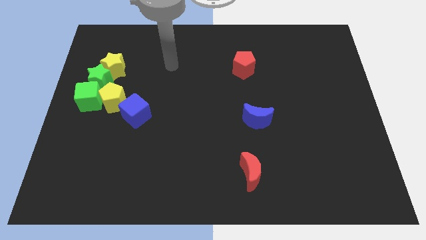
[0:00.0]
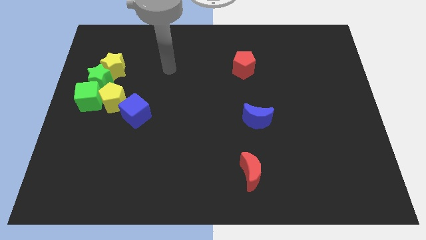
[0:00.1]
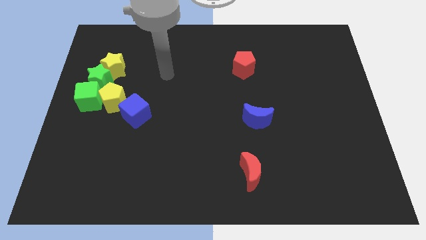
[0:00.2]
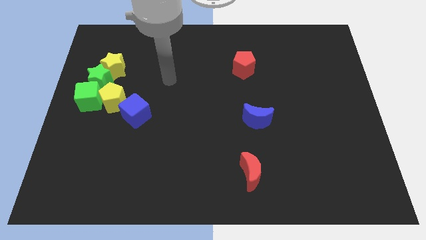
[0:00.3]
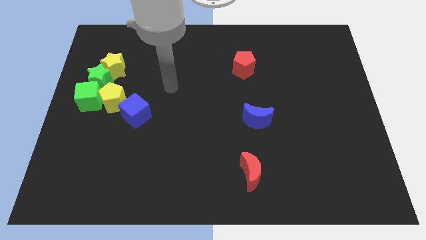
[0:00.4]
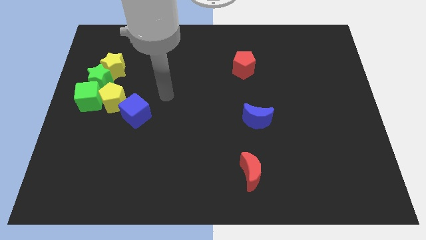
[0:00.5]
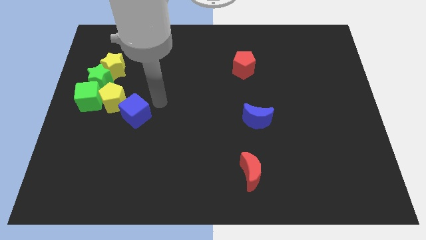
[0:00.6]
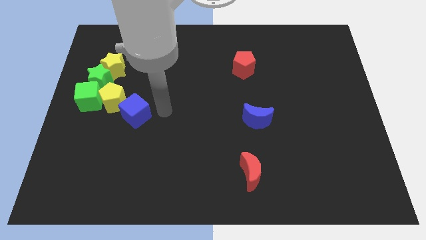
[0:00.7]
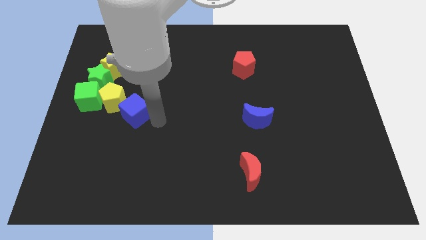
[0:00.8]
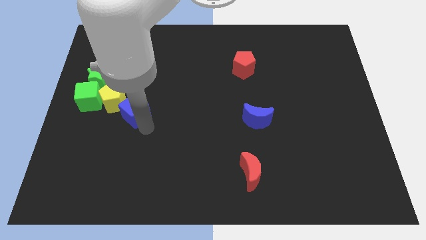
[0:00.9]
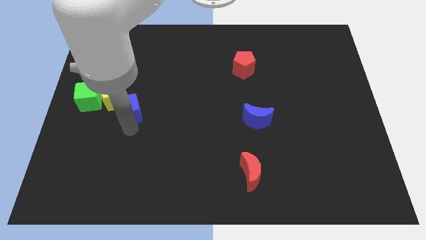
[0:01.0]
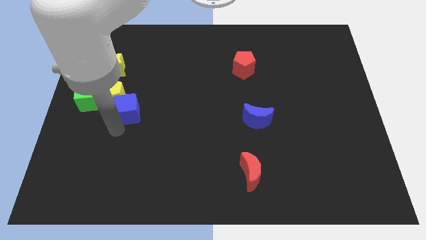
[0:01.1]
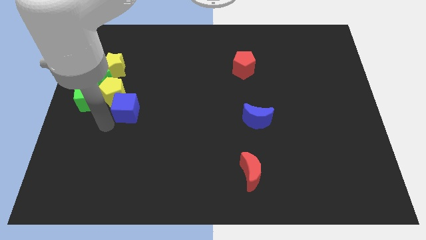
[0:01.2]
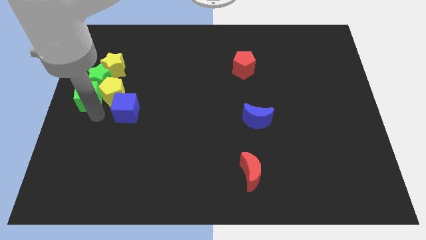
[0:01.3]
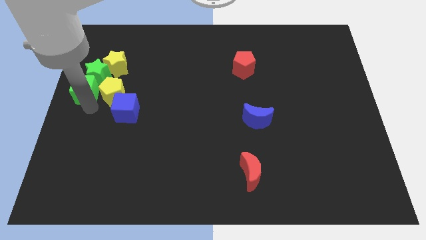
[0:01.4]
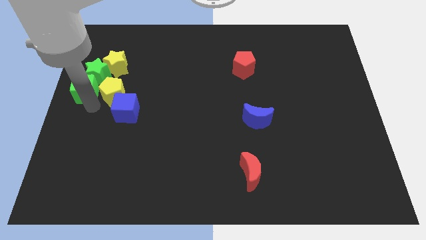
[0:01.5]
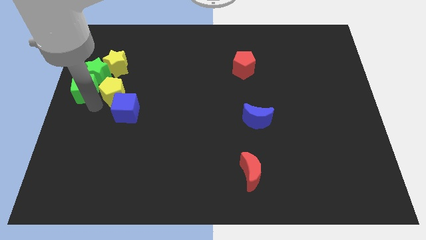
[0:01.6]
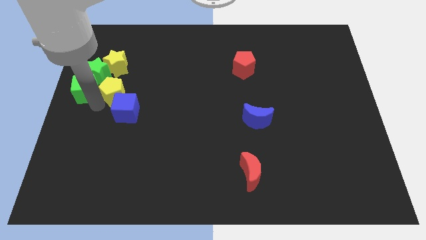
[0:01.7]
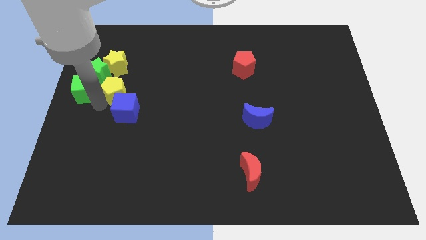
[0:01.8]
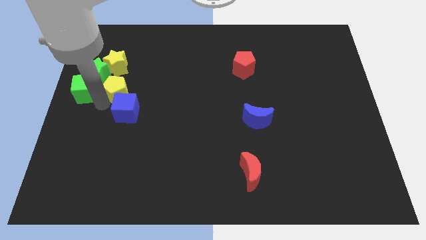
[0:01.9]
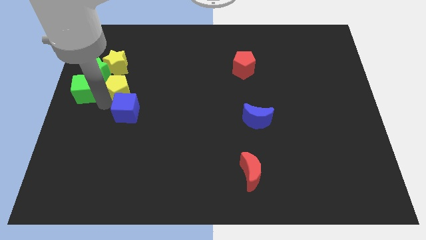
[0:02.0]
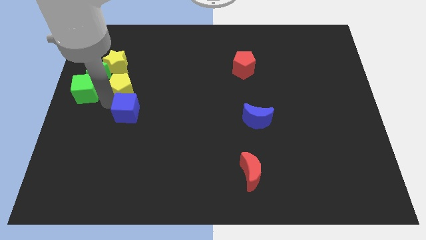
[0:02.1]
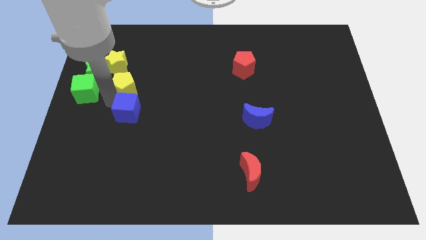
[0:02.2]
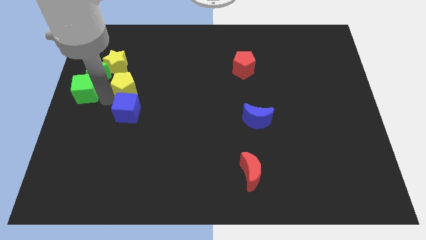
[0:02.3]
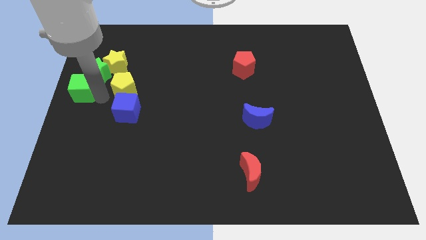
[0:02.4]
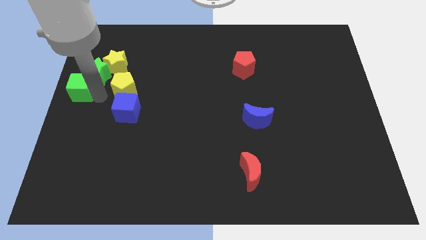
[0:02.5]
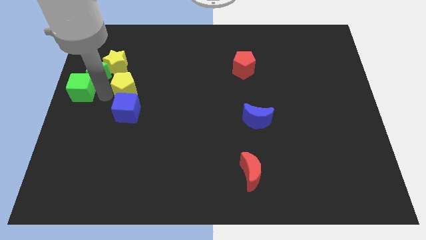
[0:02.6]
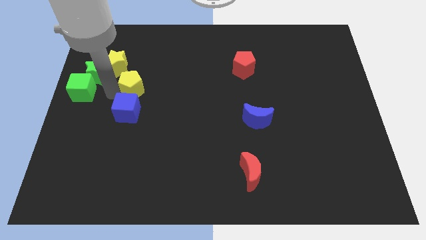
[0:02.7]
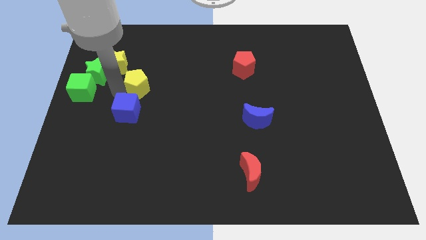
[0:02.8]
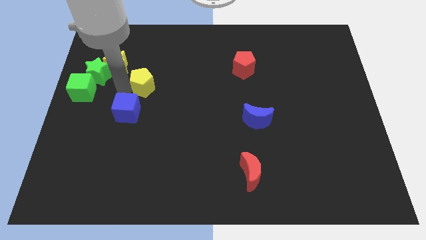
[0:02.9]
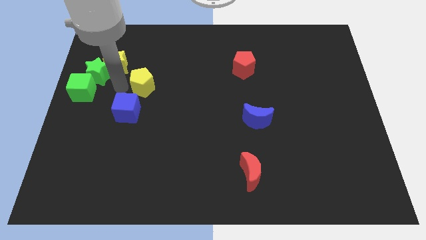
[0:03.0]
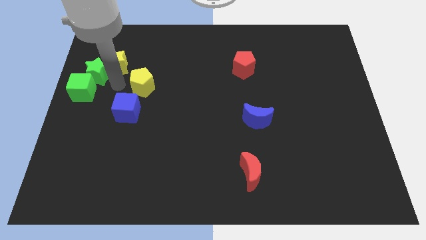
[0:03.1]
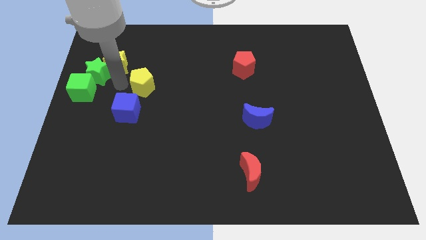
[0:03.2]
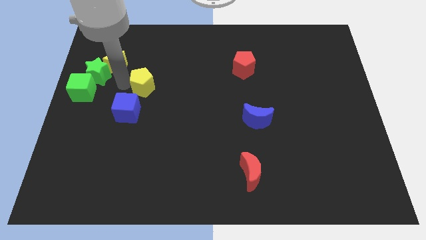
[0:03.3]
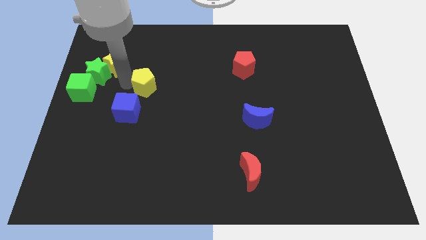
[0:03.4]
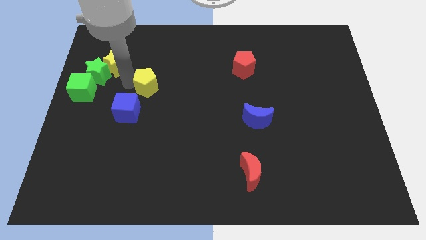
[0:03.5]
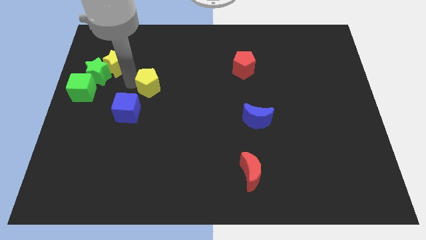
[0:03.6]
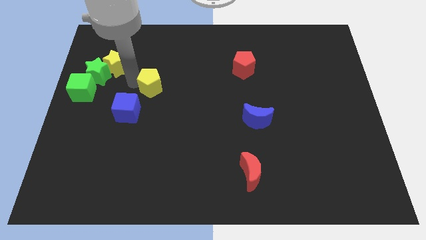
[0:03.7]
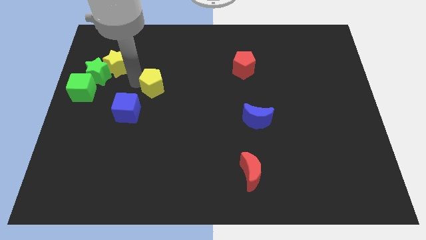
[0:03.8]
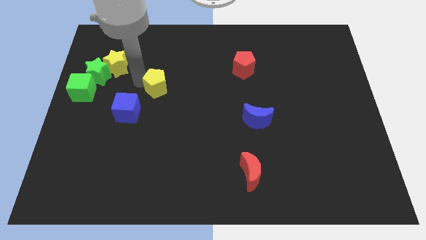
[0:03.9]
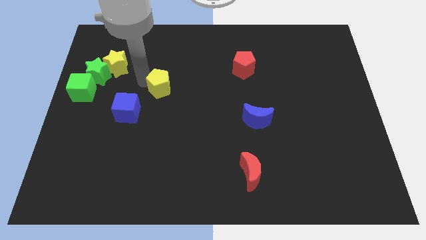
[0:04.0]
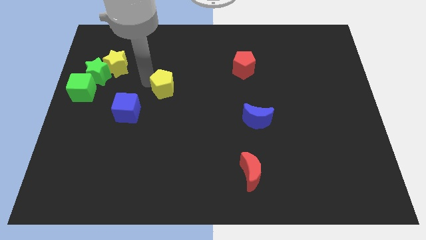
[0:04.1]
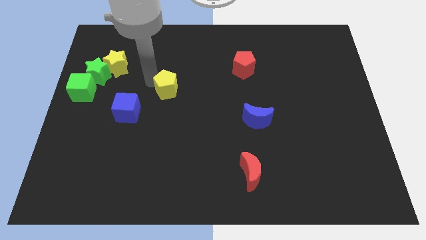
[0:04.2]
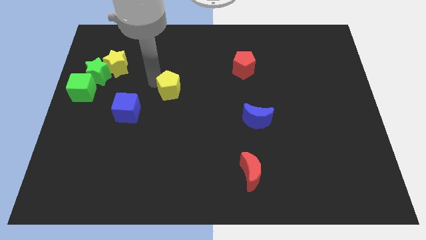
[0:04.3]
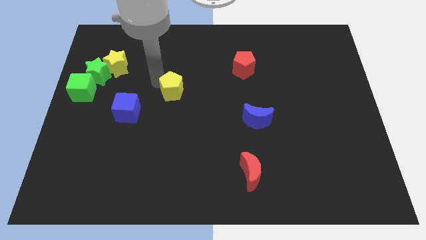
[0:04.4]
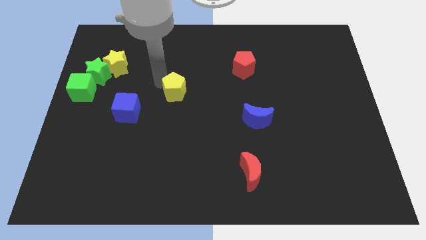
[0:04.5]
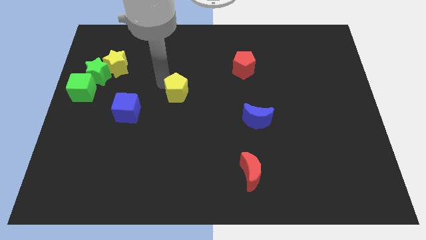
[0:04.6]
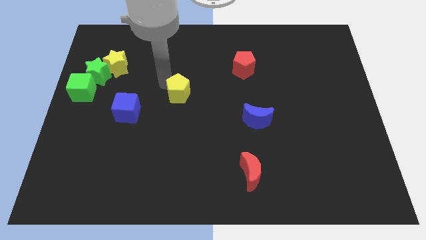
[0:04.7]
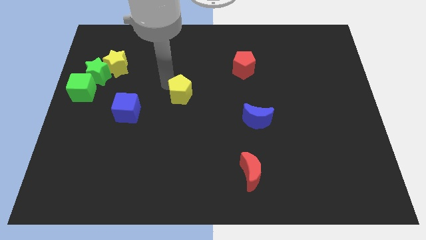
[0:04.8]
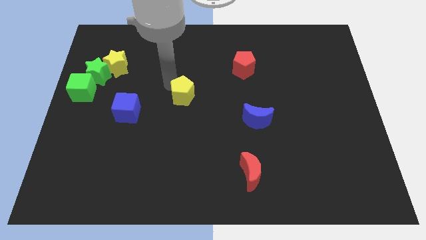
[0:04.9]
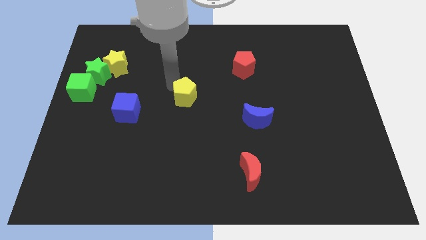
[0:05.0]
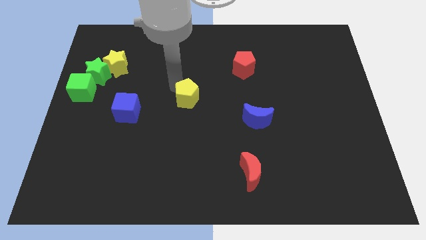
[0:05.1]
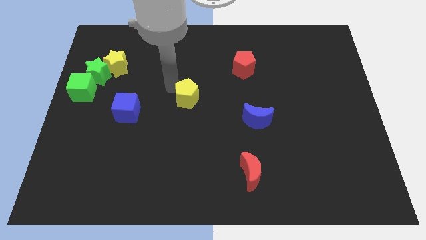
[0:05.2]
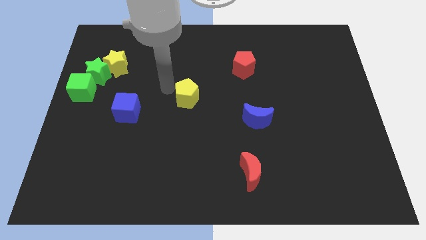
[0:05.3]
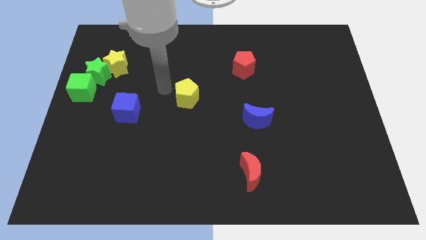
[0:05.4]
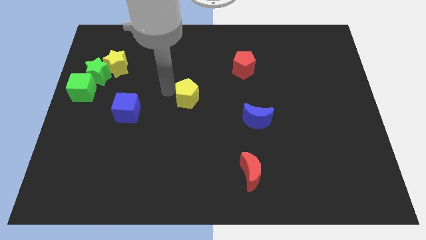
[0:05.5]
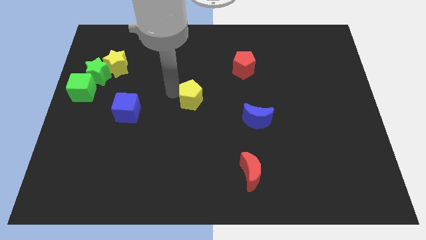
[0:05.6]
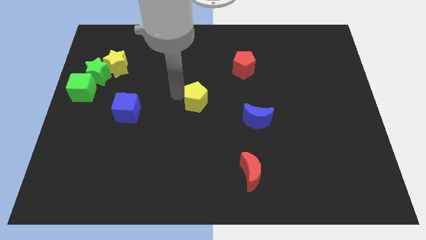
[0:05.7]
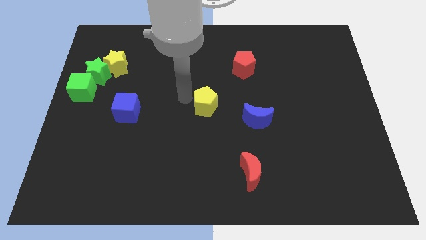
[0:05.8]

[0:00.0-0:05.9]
move the yellow pentagon to the right

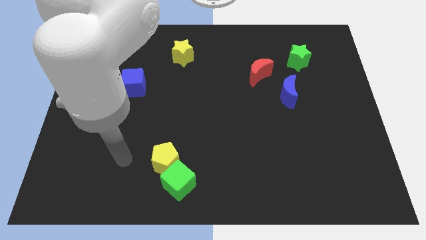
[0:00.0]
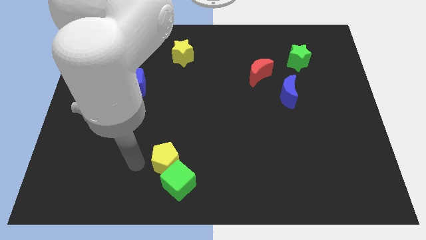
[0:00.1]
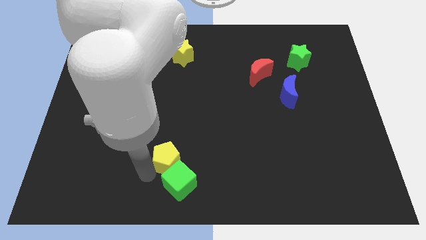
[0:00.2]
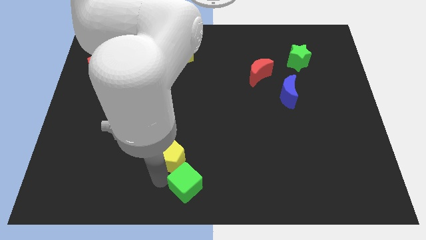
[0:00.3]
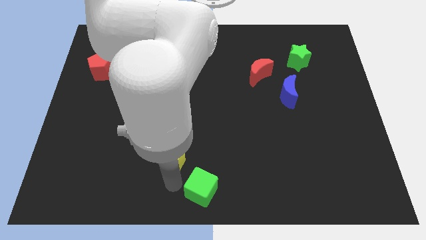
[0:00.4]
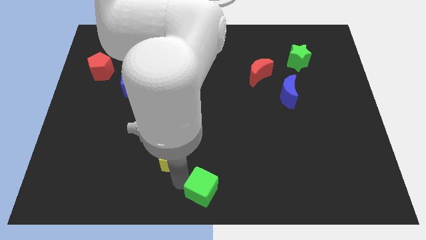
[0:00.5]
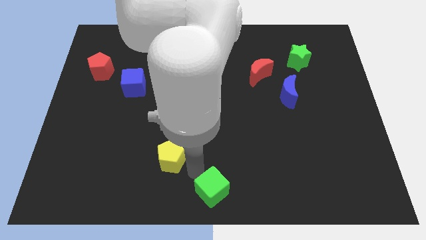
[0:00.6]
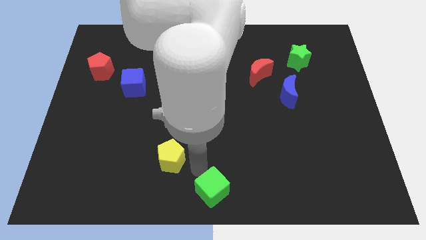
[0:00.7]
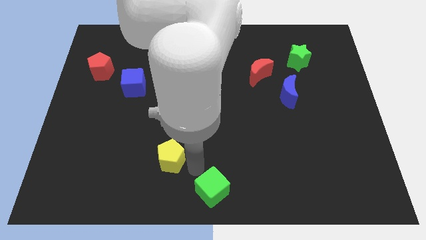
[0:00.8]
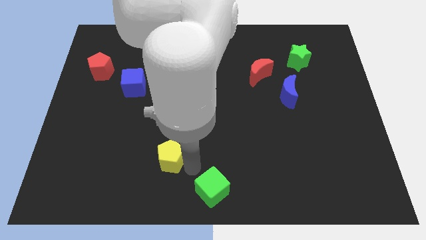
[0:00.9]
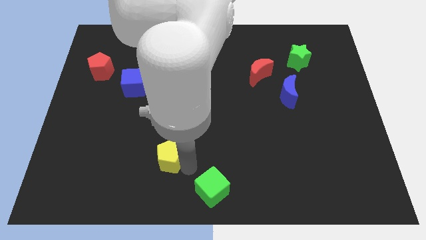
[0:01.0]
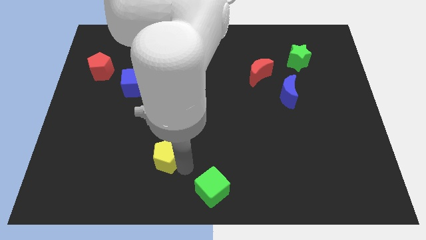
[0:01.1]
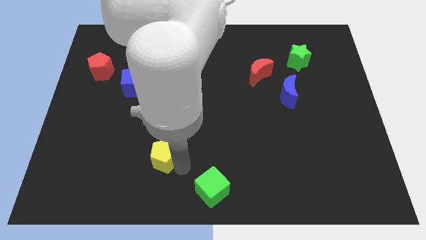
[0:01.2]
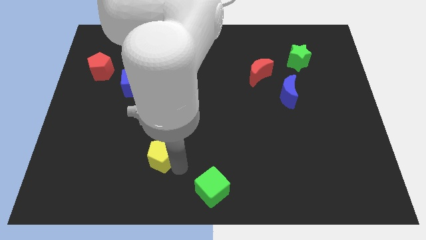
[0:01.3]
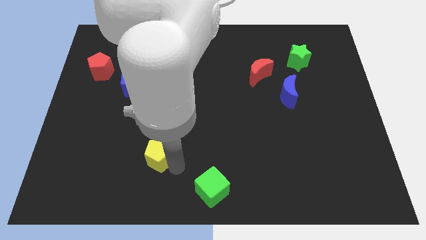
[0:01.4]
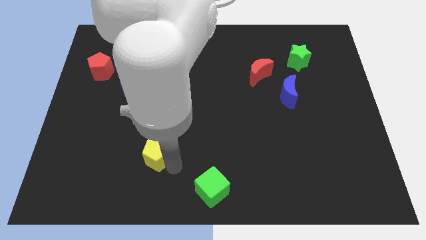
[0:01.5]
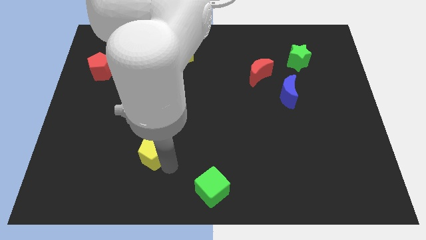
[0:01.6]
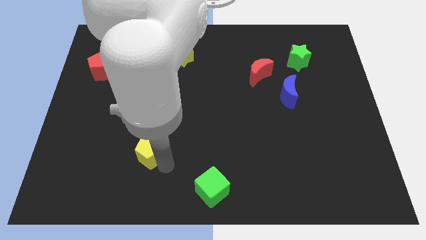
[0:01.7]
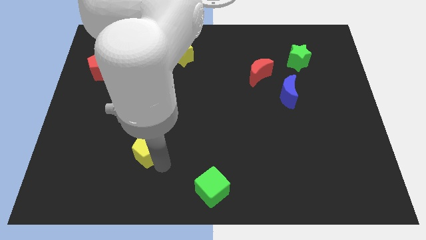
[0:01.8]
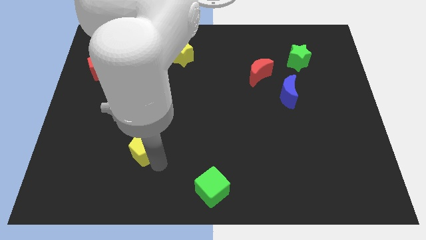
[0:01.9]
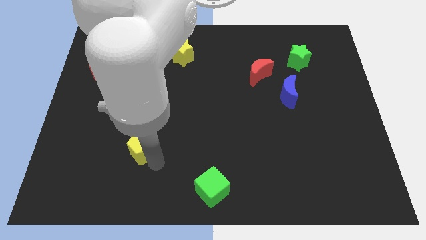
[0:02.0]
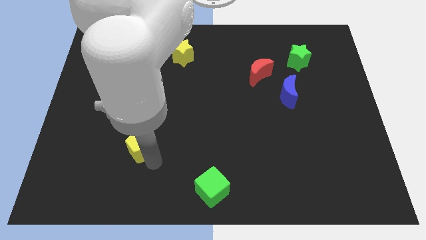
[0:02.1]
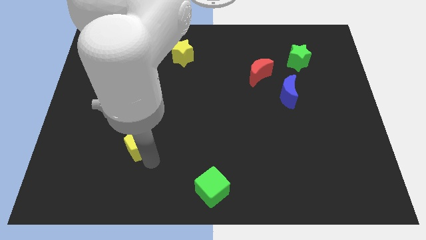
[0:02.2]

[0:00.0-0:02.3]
slightly slide the yellow pentagon up and left
